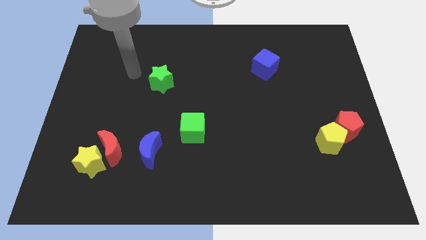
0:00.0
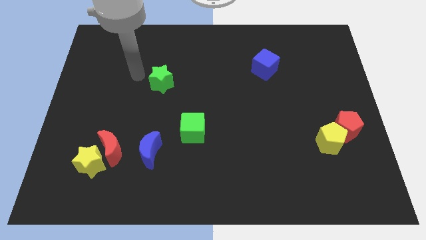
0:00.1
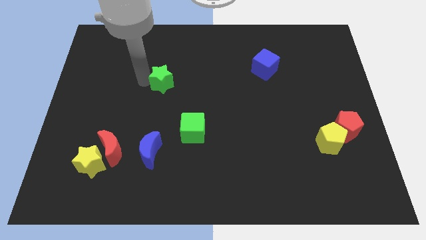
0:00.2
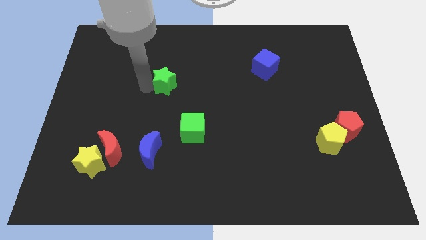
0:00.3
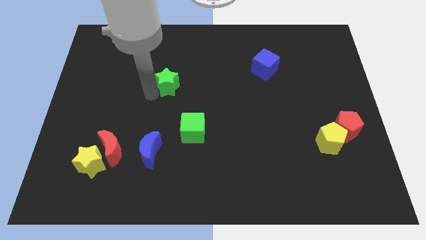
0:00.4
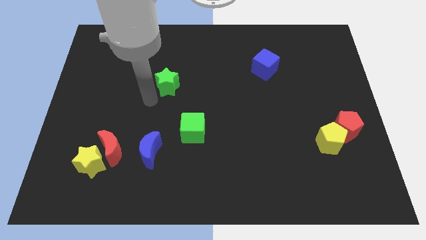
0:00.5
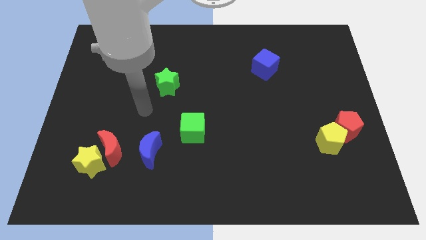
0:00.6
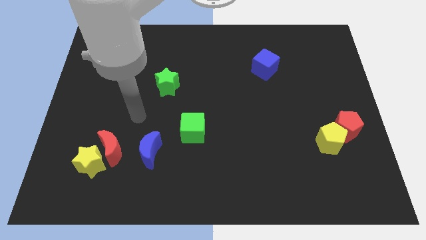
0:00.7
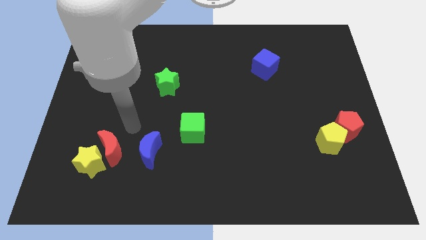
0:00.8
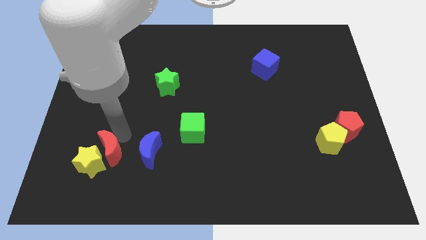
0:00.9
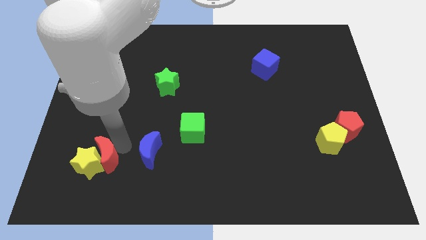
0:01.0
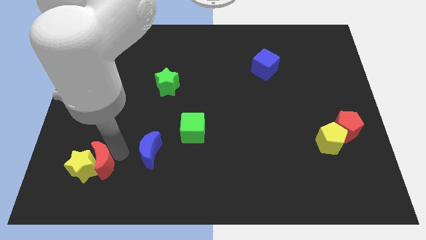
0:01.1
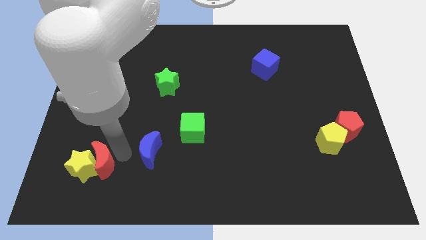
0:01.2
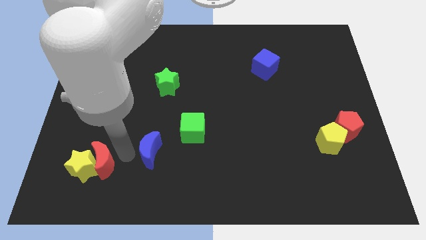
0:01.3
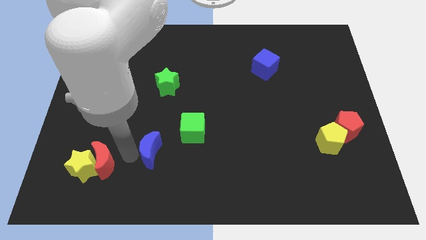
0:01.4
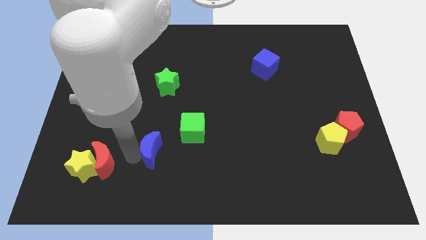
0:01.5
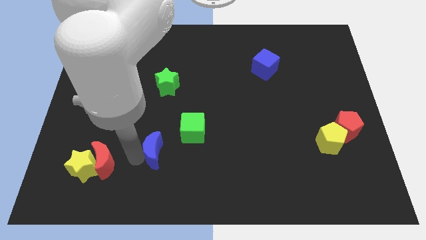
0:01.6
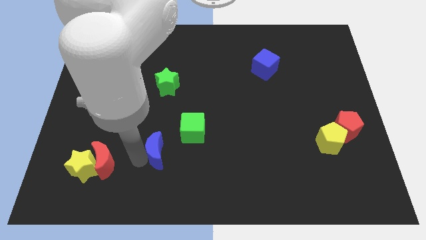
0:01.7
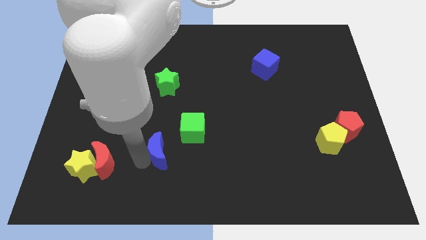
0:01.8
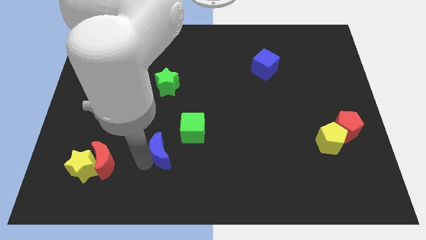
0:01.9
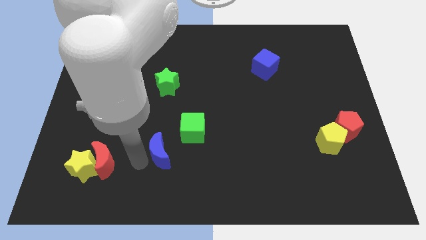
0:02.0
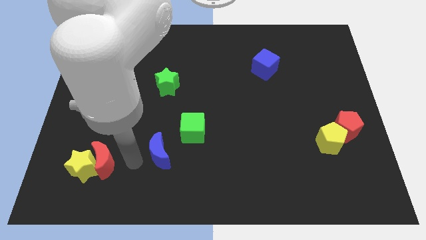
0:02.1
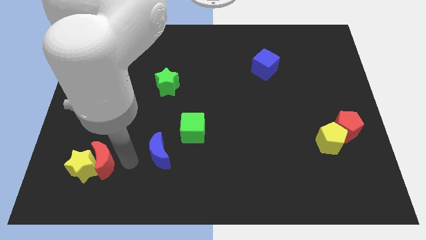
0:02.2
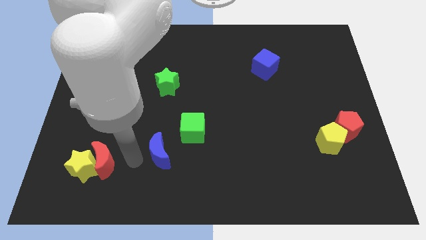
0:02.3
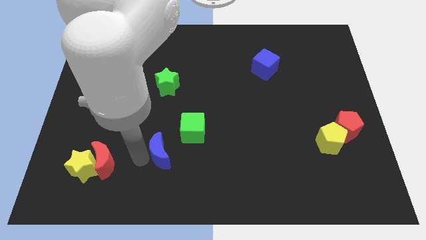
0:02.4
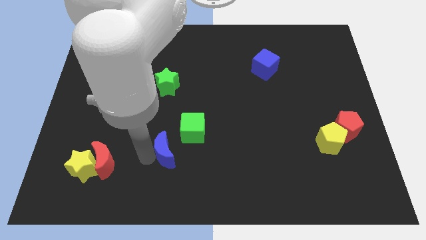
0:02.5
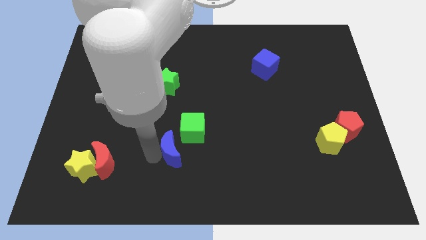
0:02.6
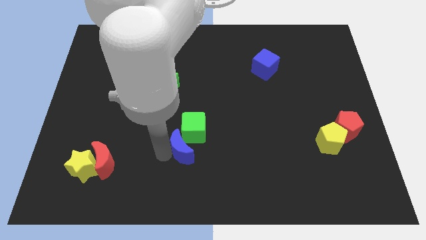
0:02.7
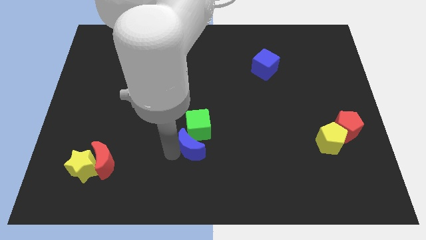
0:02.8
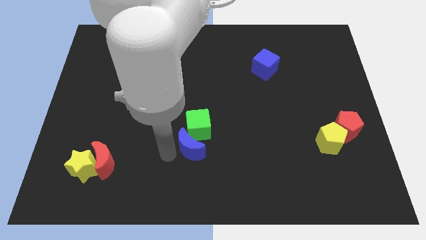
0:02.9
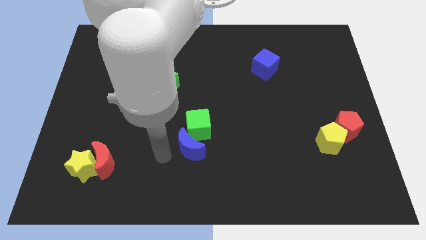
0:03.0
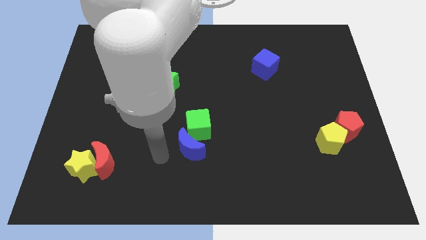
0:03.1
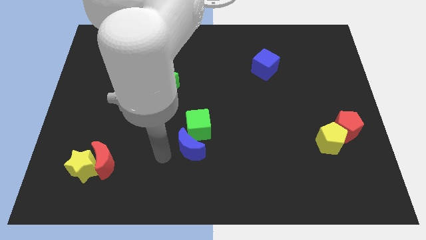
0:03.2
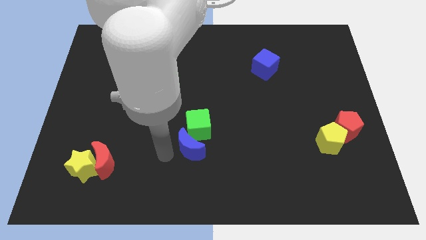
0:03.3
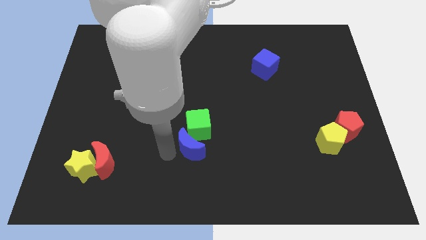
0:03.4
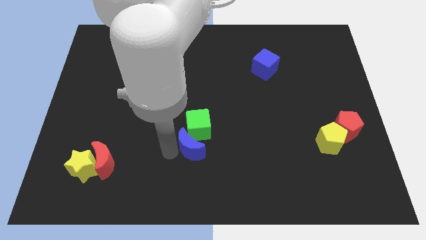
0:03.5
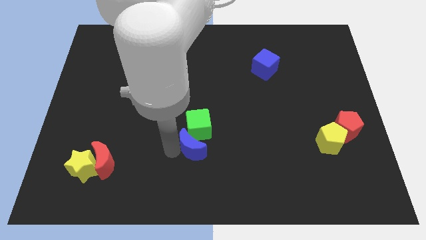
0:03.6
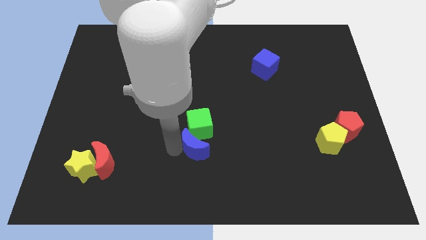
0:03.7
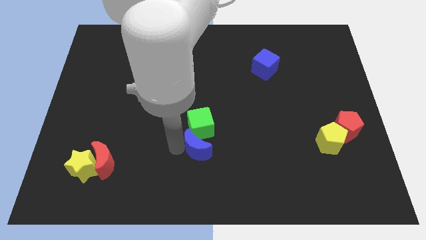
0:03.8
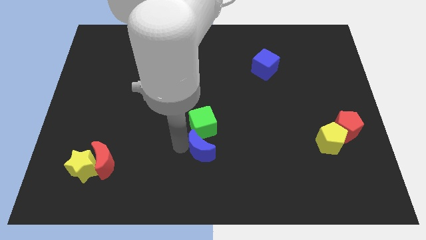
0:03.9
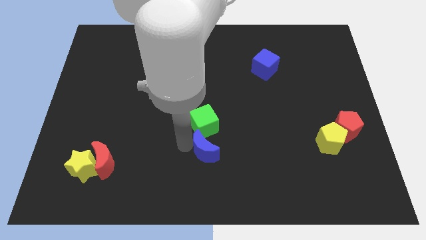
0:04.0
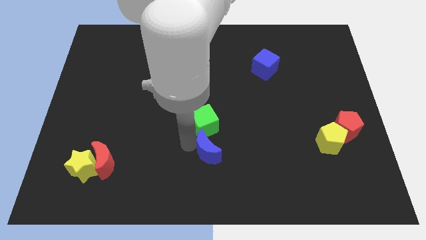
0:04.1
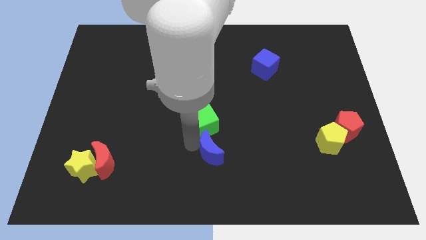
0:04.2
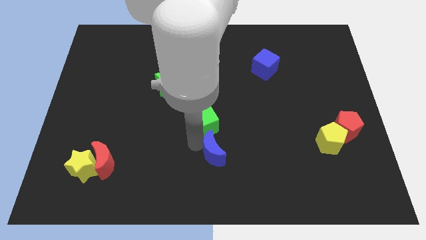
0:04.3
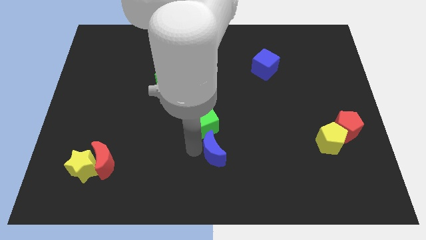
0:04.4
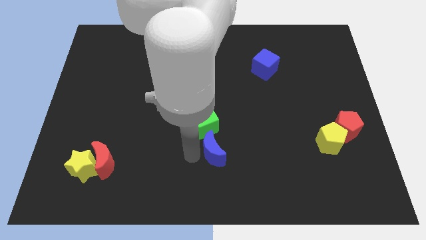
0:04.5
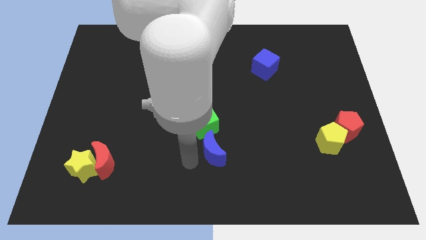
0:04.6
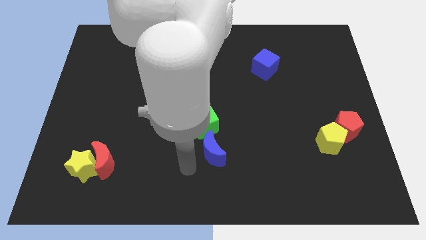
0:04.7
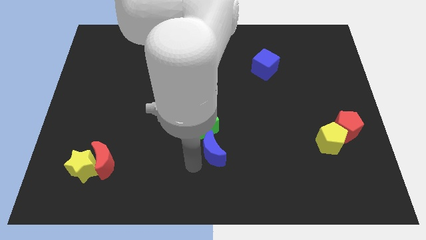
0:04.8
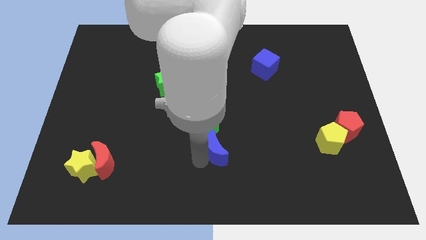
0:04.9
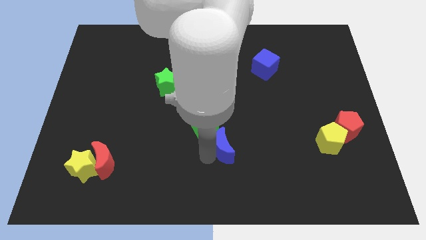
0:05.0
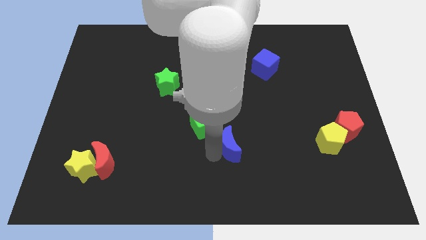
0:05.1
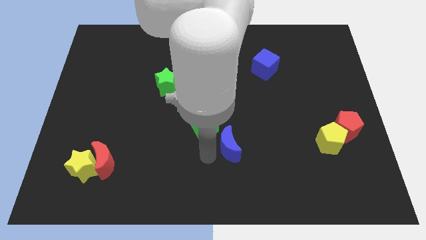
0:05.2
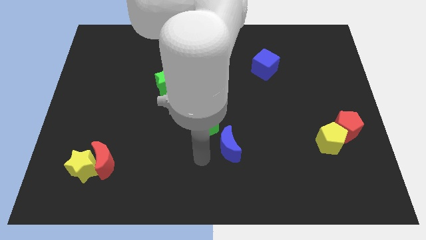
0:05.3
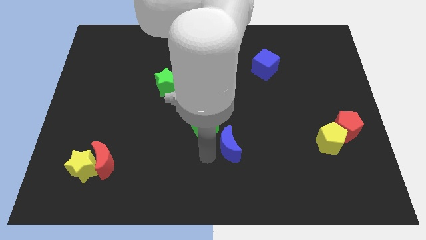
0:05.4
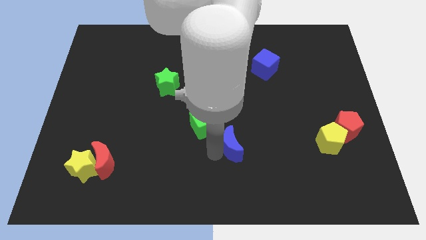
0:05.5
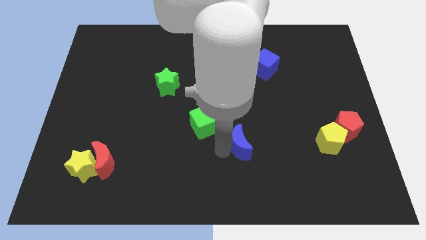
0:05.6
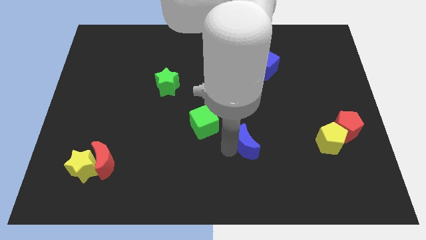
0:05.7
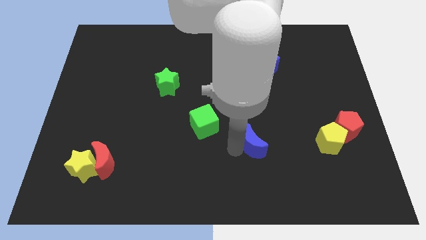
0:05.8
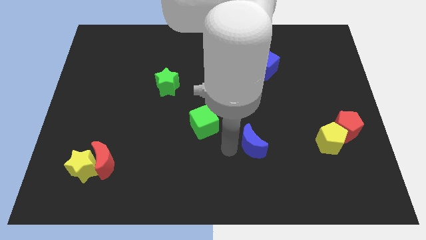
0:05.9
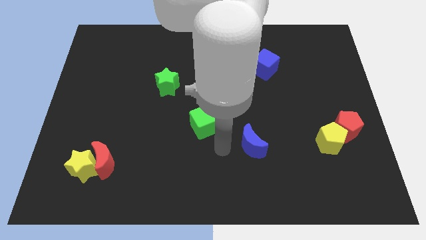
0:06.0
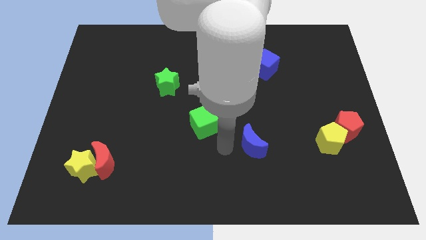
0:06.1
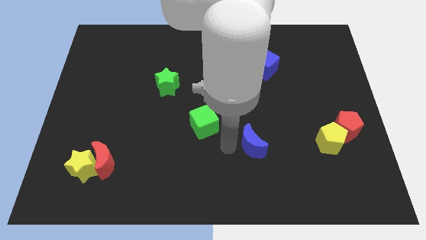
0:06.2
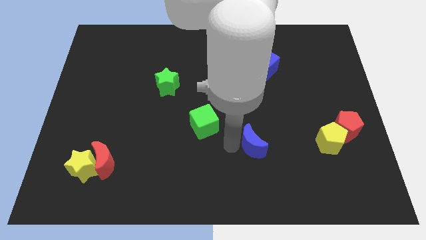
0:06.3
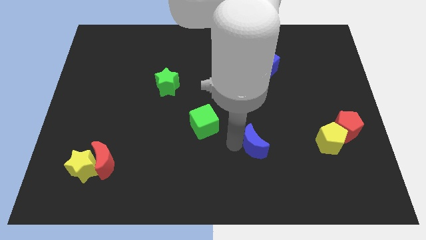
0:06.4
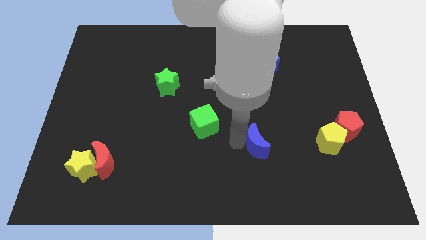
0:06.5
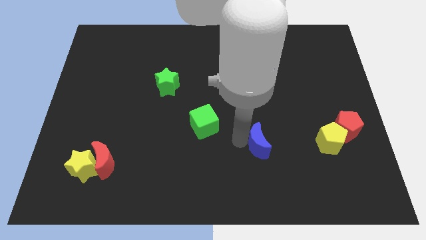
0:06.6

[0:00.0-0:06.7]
put the blue moon just left of the yellow pentagon
